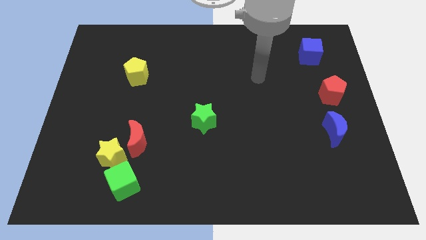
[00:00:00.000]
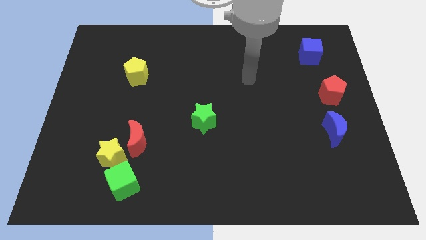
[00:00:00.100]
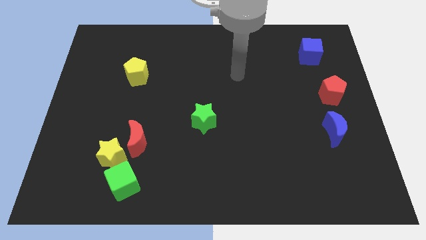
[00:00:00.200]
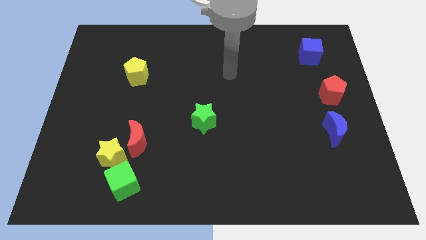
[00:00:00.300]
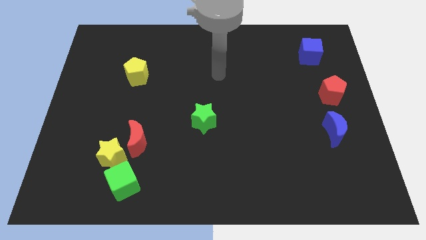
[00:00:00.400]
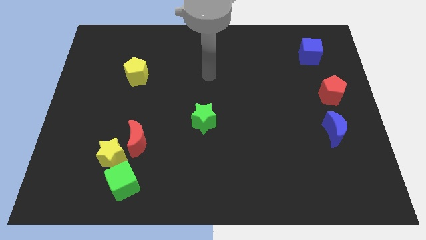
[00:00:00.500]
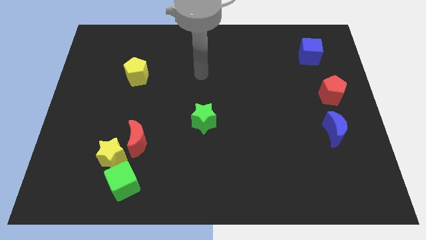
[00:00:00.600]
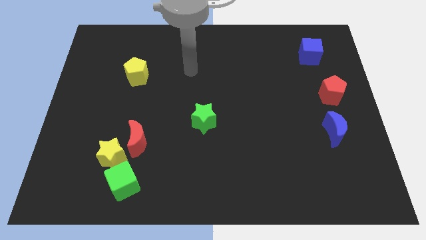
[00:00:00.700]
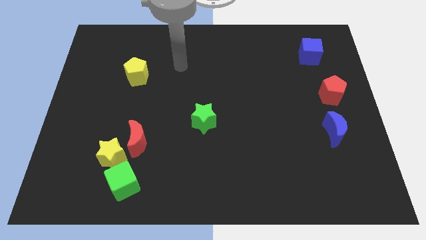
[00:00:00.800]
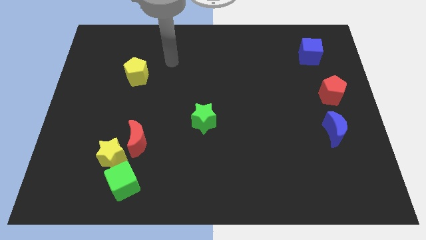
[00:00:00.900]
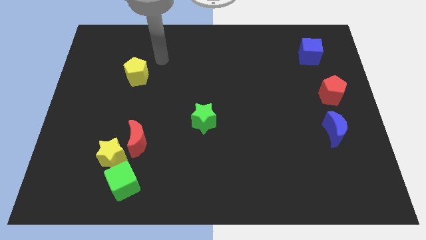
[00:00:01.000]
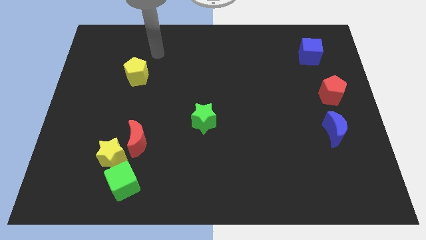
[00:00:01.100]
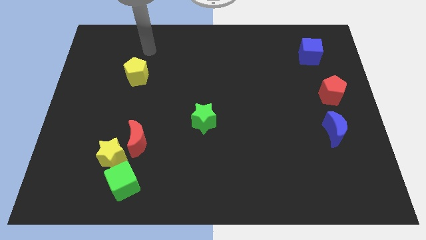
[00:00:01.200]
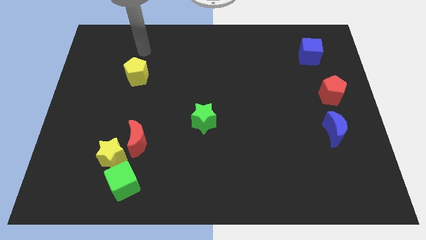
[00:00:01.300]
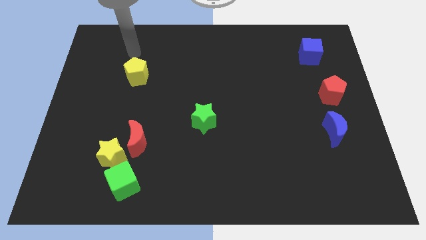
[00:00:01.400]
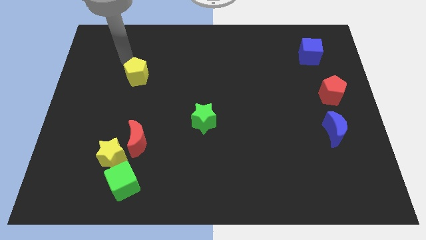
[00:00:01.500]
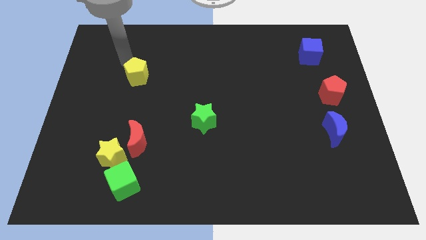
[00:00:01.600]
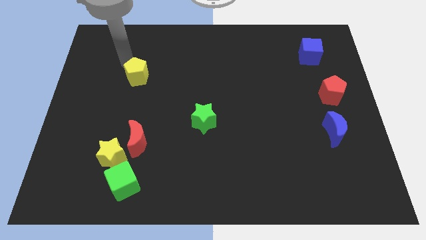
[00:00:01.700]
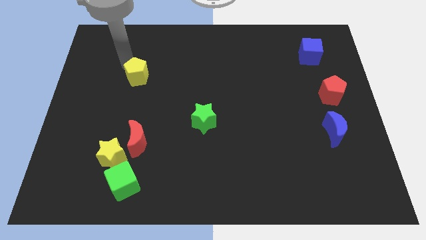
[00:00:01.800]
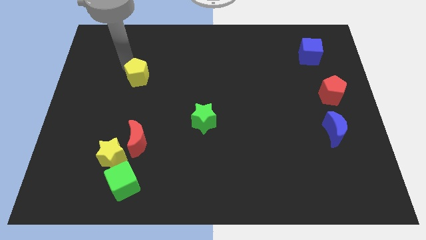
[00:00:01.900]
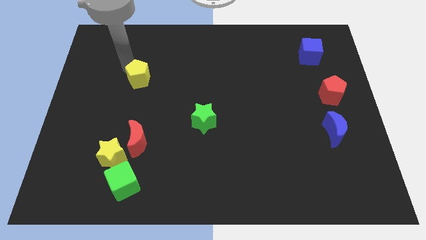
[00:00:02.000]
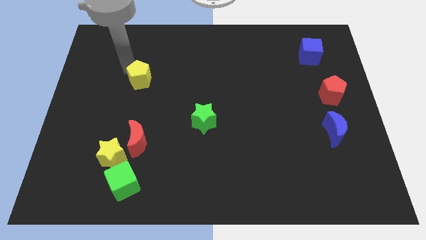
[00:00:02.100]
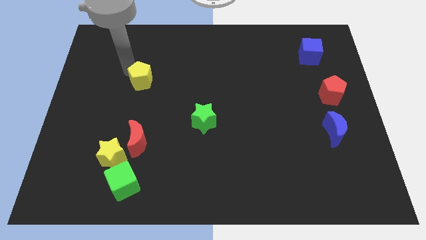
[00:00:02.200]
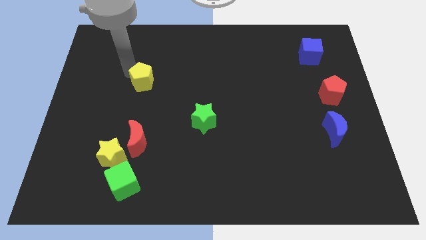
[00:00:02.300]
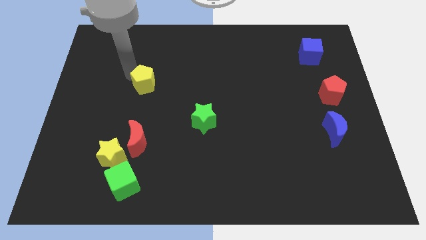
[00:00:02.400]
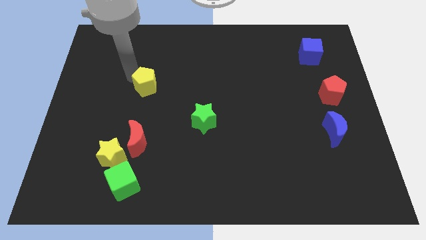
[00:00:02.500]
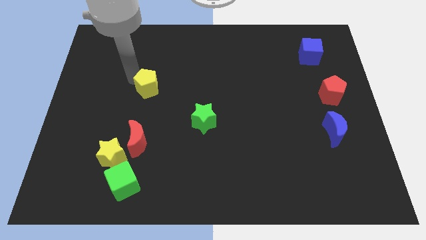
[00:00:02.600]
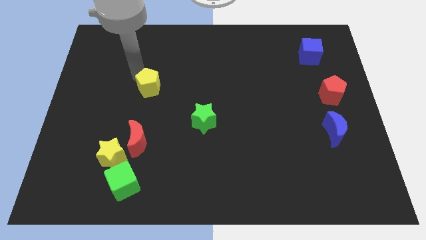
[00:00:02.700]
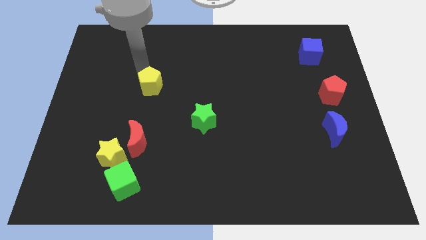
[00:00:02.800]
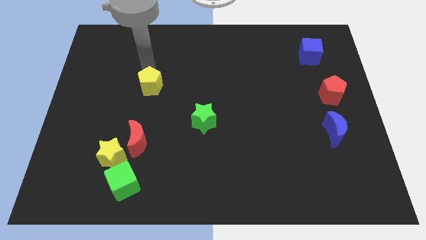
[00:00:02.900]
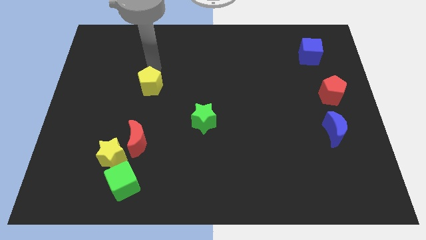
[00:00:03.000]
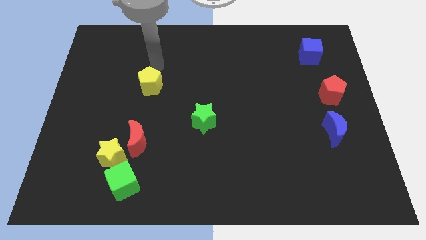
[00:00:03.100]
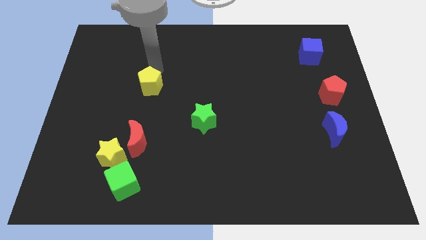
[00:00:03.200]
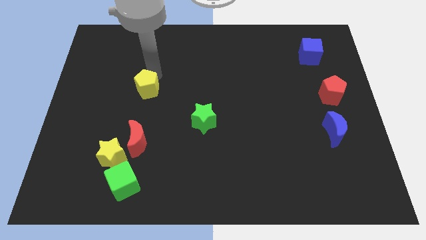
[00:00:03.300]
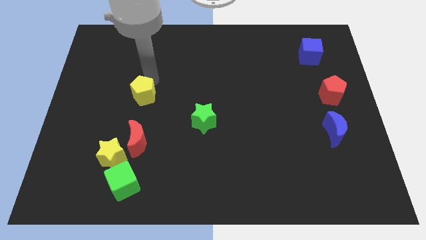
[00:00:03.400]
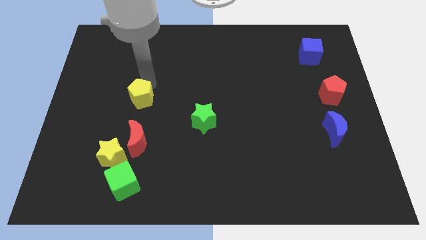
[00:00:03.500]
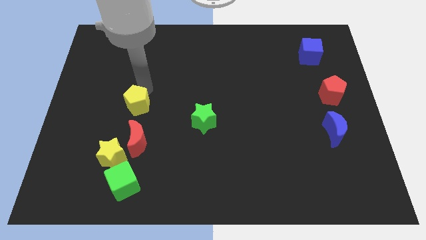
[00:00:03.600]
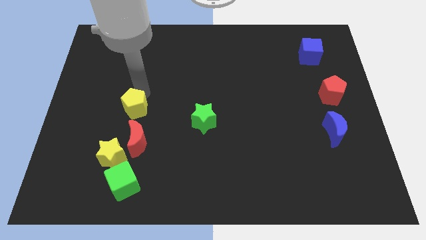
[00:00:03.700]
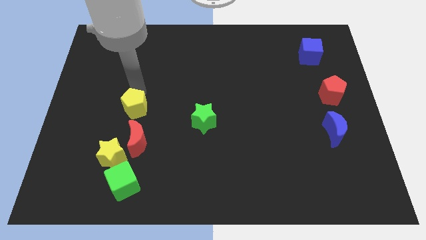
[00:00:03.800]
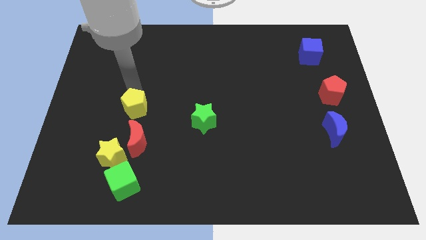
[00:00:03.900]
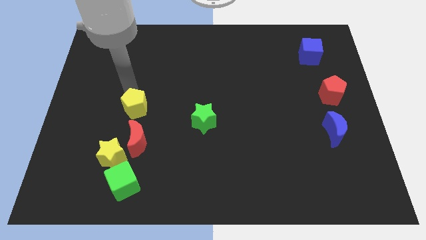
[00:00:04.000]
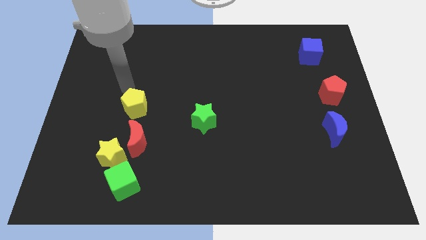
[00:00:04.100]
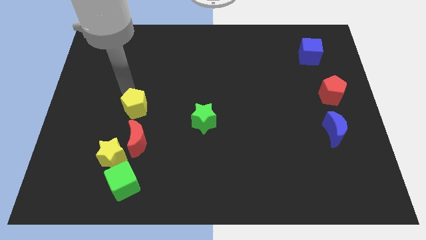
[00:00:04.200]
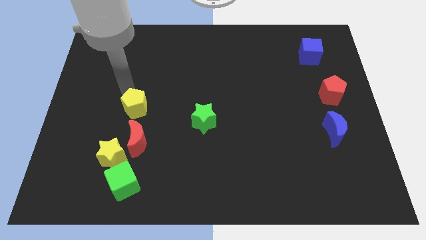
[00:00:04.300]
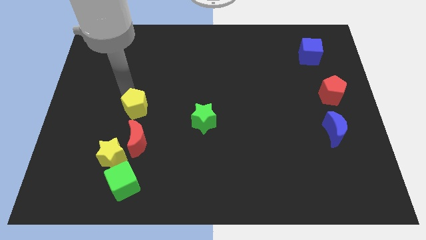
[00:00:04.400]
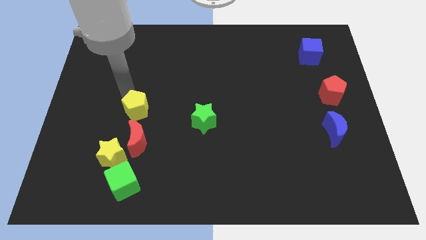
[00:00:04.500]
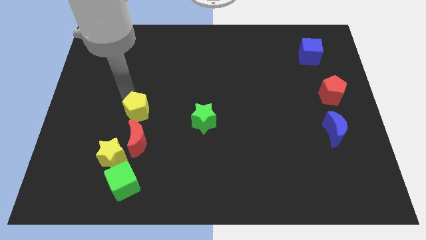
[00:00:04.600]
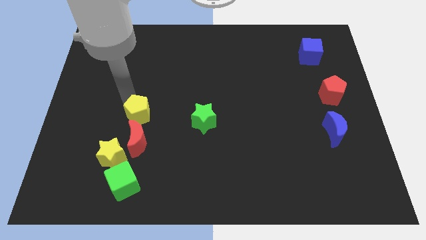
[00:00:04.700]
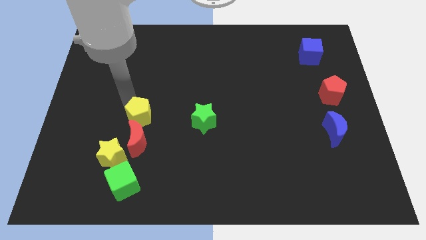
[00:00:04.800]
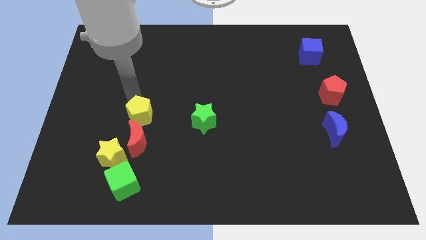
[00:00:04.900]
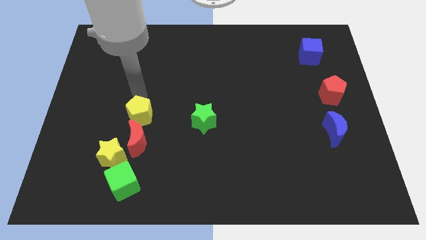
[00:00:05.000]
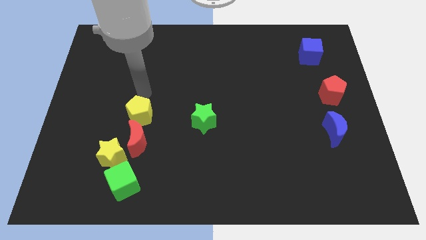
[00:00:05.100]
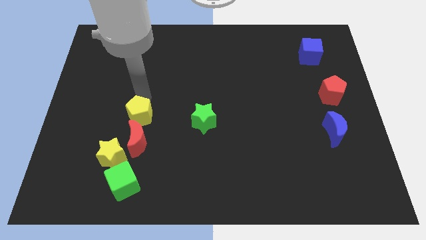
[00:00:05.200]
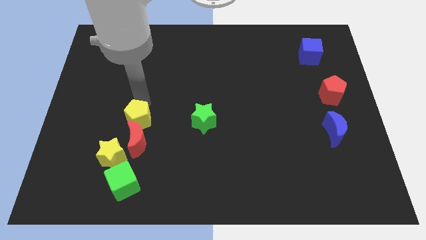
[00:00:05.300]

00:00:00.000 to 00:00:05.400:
slide the yellow pentagon close to the red moon

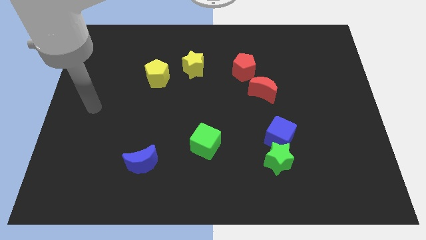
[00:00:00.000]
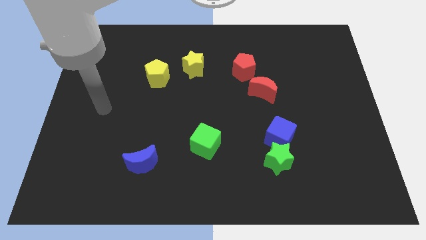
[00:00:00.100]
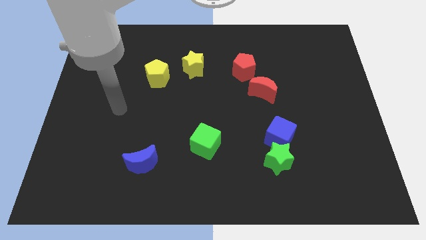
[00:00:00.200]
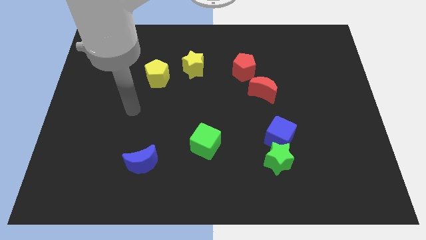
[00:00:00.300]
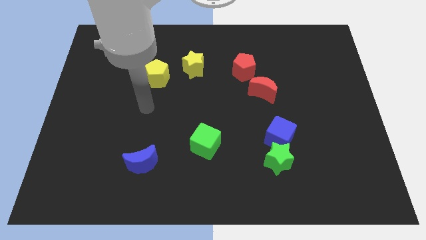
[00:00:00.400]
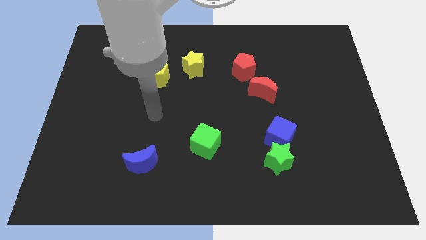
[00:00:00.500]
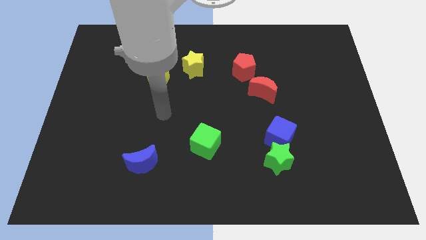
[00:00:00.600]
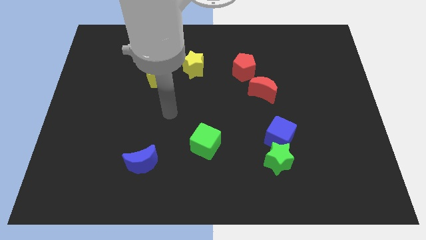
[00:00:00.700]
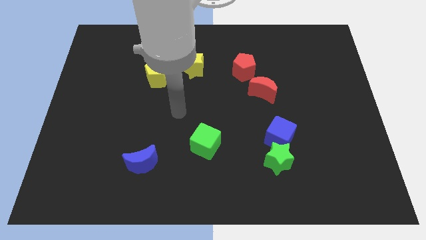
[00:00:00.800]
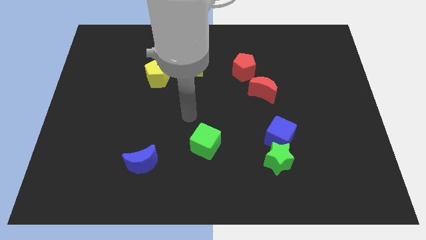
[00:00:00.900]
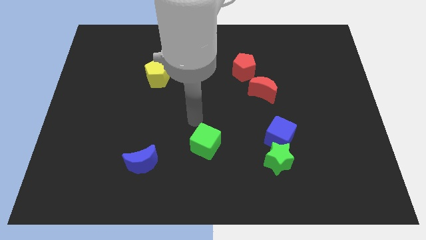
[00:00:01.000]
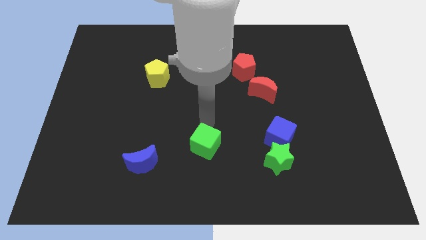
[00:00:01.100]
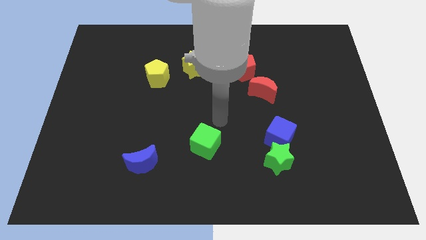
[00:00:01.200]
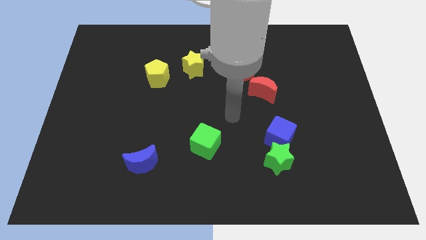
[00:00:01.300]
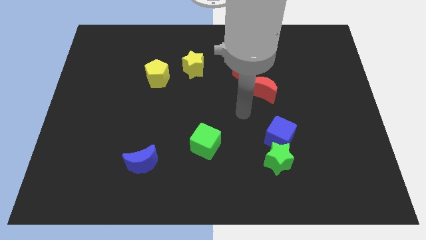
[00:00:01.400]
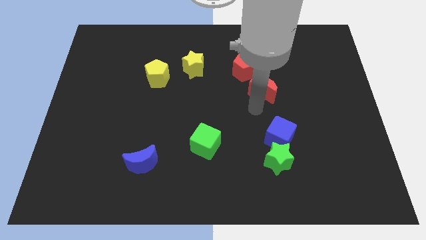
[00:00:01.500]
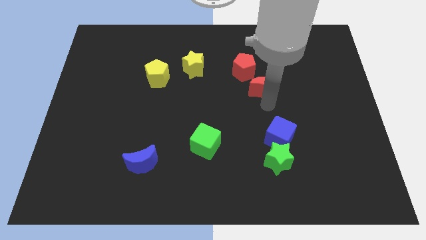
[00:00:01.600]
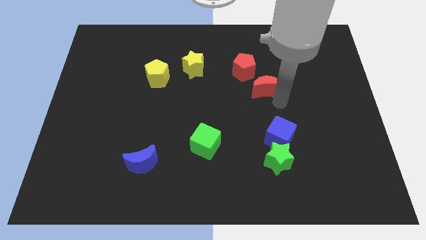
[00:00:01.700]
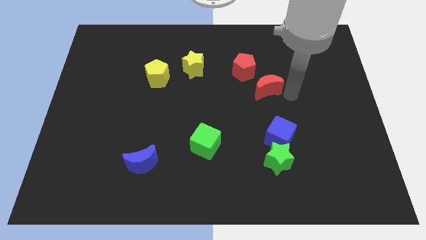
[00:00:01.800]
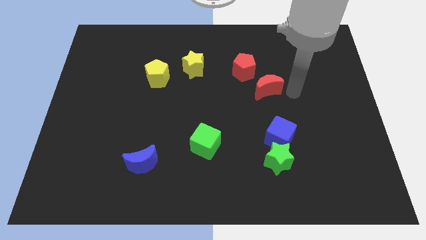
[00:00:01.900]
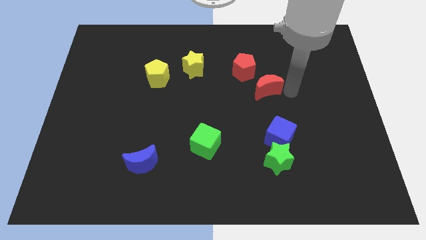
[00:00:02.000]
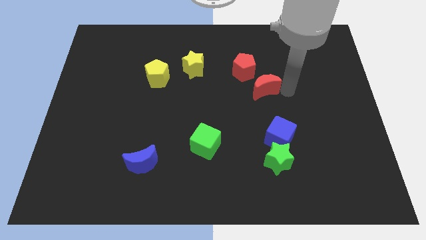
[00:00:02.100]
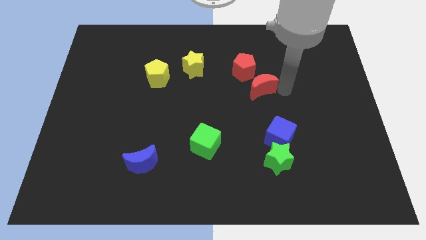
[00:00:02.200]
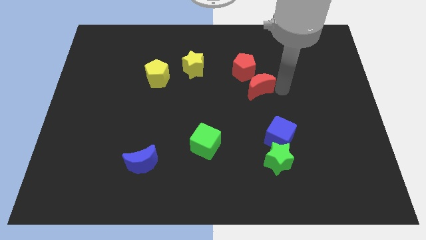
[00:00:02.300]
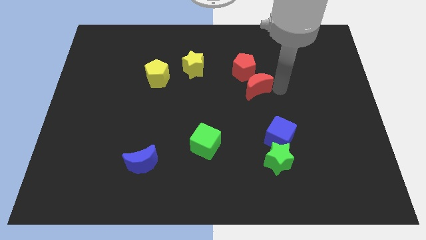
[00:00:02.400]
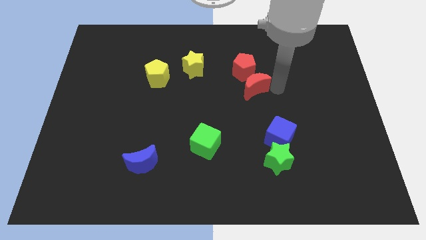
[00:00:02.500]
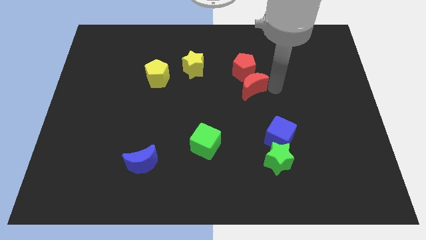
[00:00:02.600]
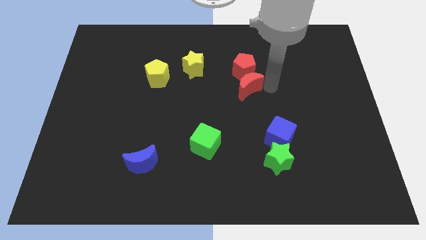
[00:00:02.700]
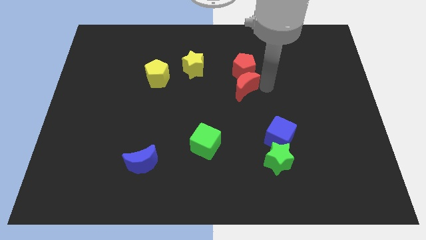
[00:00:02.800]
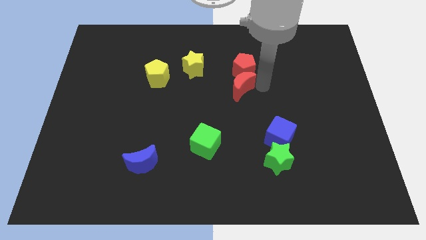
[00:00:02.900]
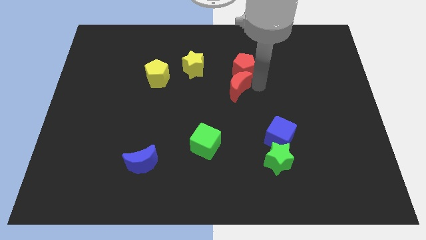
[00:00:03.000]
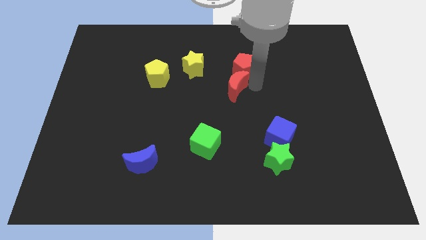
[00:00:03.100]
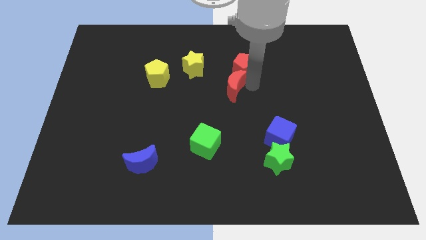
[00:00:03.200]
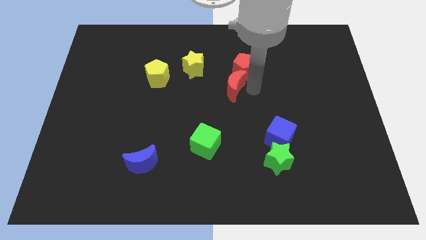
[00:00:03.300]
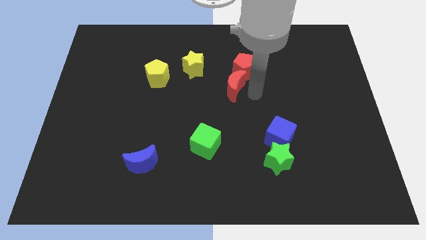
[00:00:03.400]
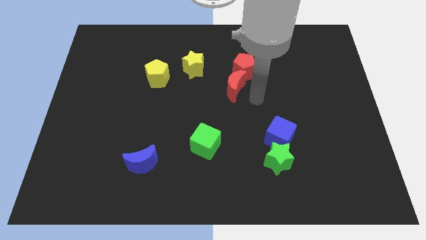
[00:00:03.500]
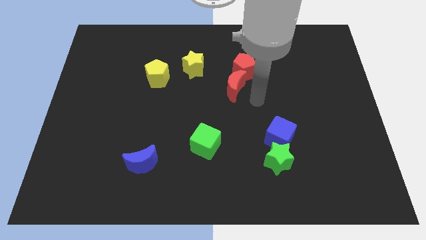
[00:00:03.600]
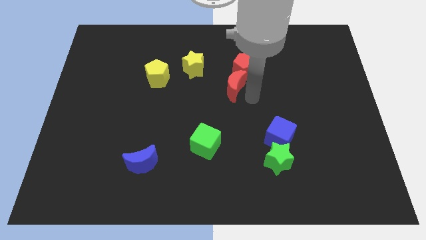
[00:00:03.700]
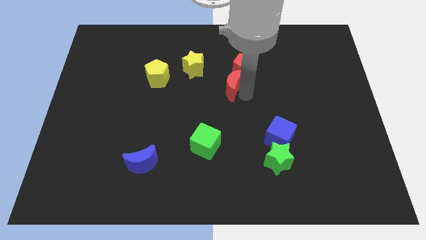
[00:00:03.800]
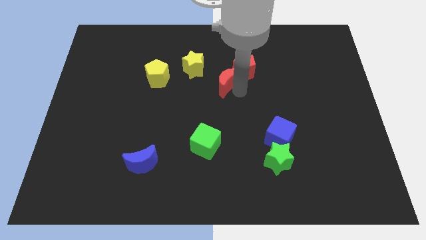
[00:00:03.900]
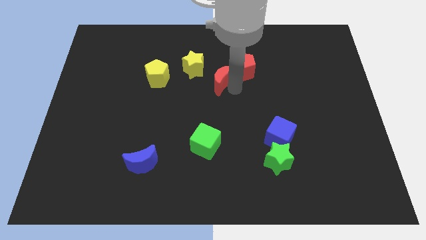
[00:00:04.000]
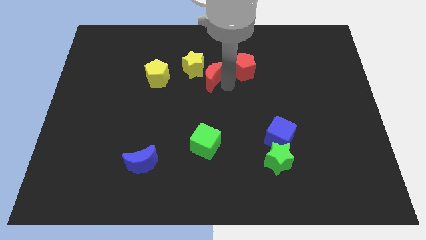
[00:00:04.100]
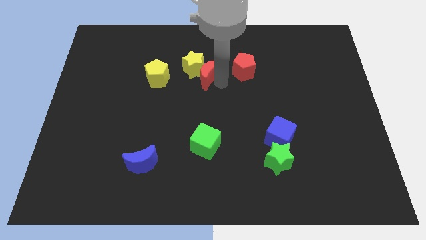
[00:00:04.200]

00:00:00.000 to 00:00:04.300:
slide the red moon to the yellow star
